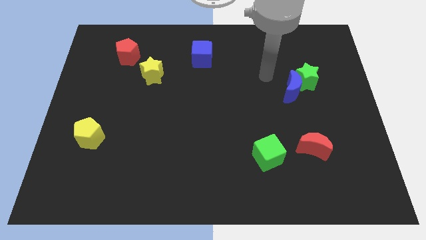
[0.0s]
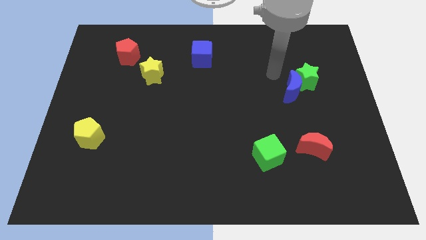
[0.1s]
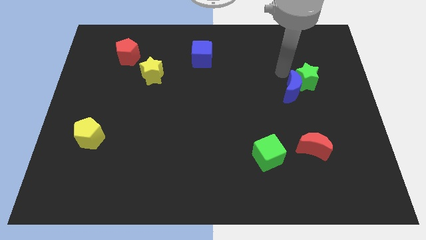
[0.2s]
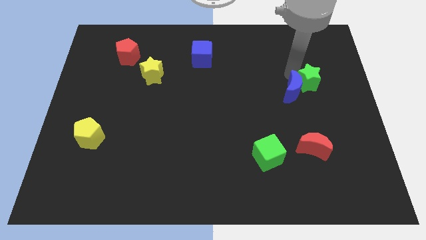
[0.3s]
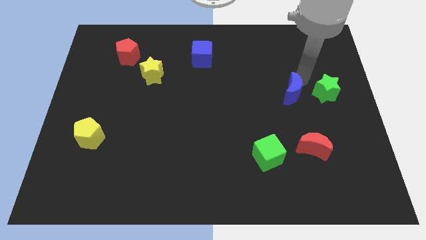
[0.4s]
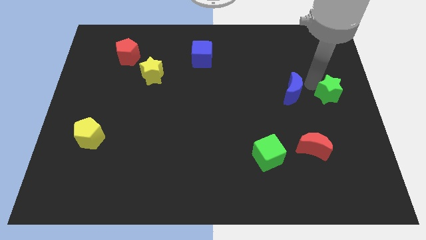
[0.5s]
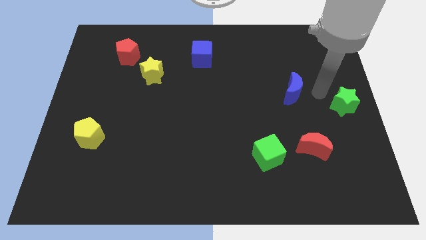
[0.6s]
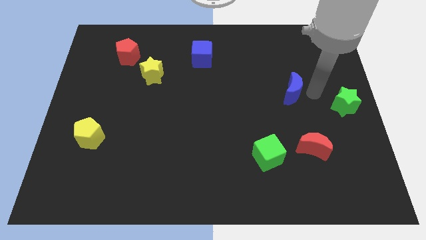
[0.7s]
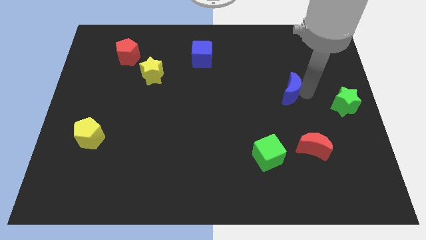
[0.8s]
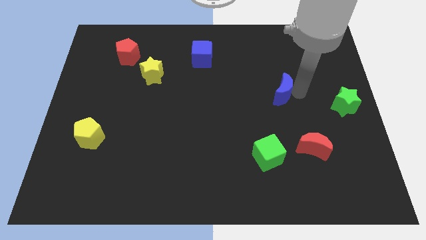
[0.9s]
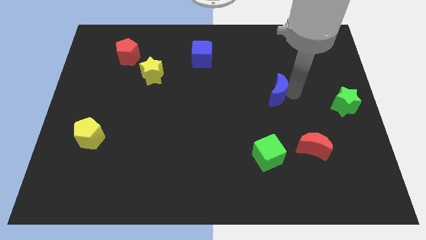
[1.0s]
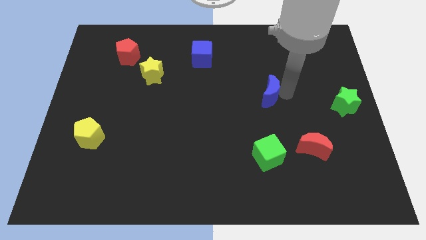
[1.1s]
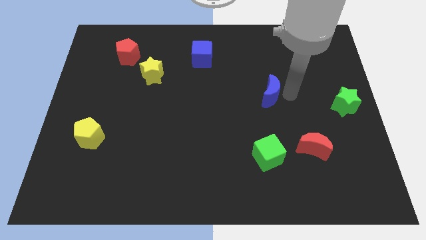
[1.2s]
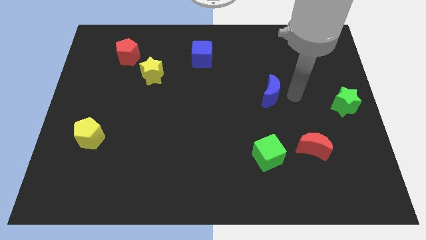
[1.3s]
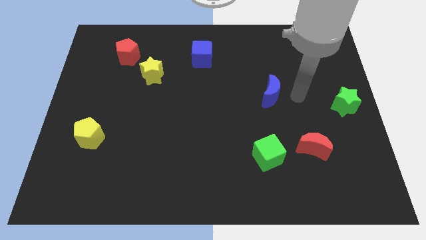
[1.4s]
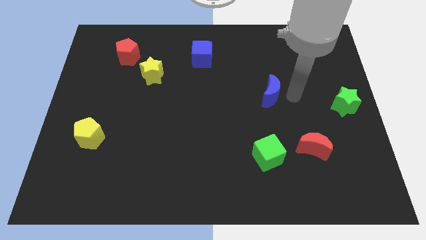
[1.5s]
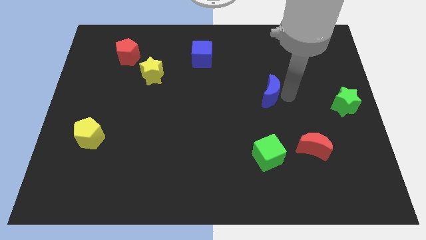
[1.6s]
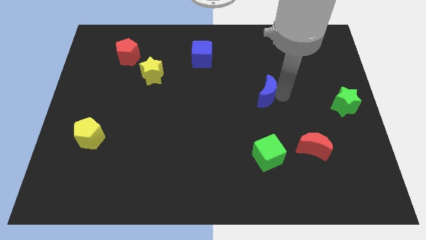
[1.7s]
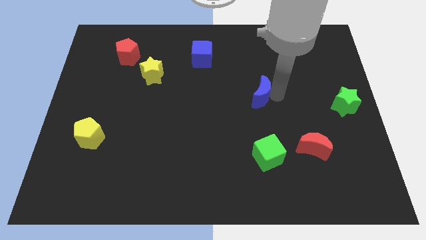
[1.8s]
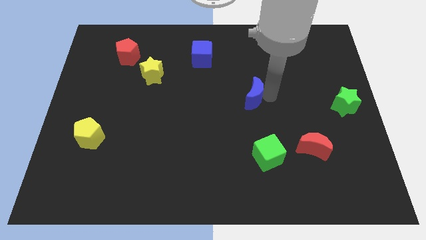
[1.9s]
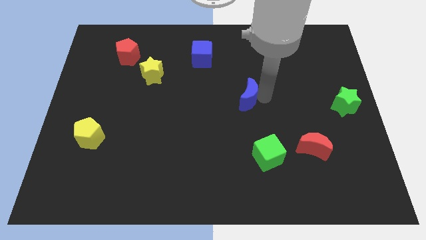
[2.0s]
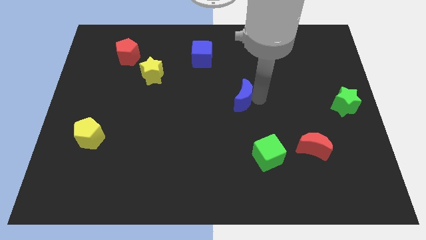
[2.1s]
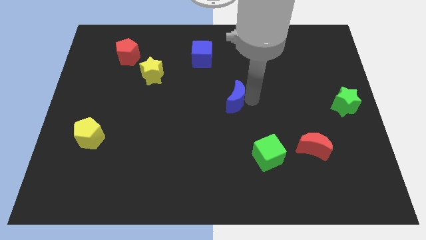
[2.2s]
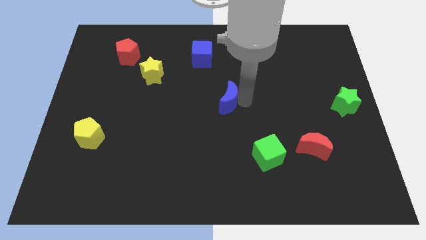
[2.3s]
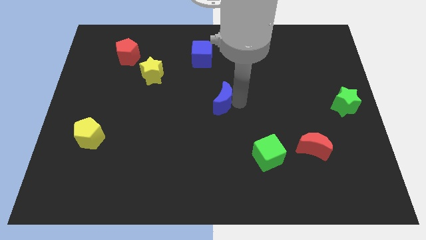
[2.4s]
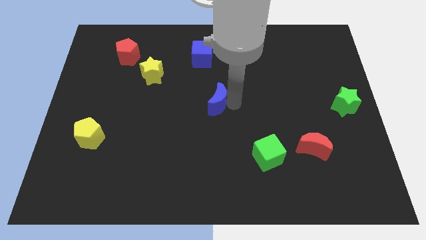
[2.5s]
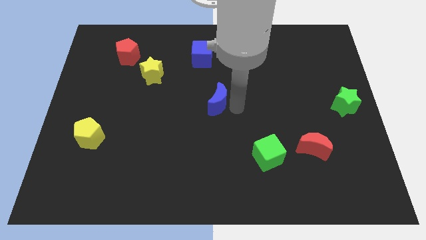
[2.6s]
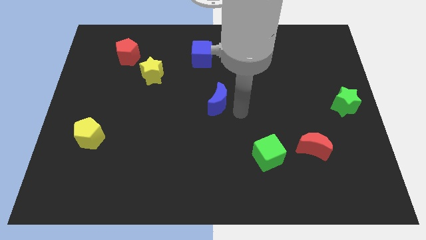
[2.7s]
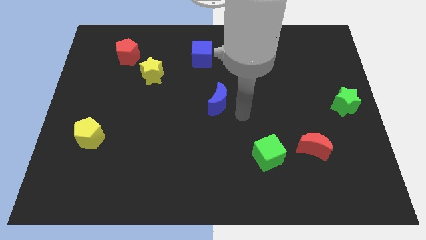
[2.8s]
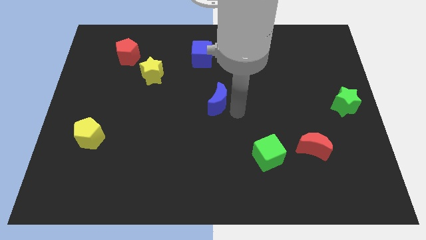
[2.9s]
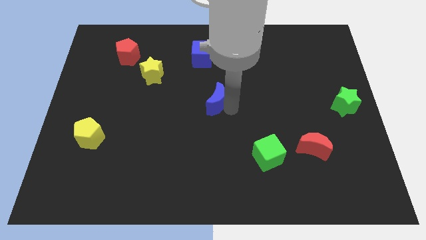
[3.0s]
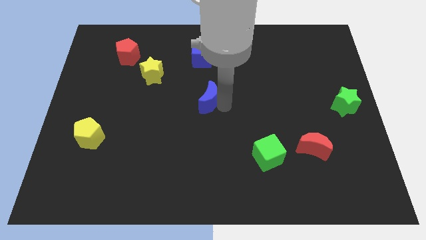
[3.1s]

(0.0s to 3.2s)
push the blue moon left

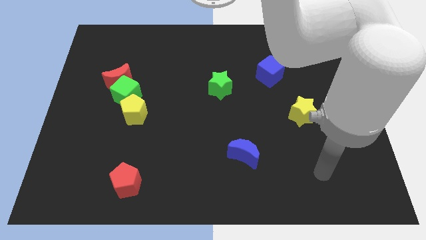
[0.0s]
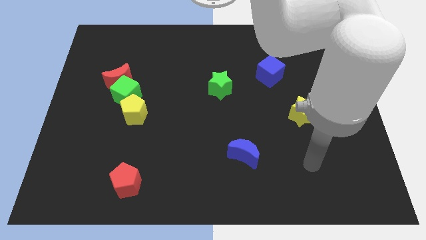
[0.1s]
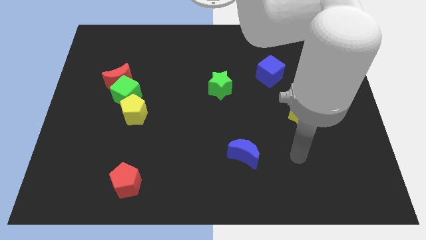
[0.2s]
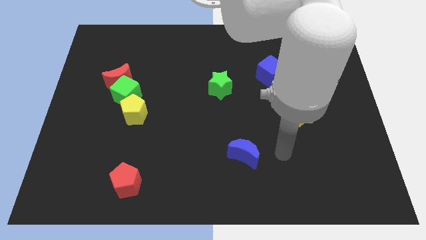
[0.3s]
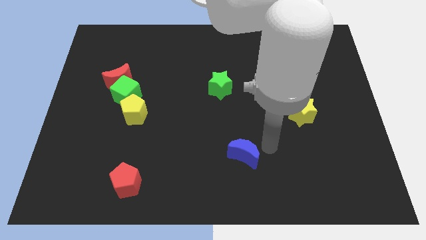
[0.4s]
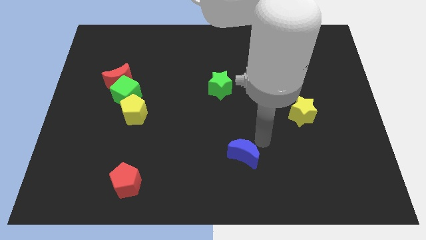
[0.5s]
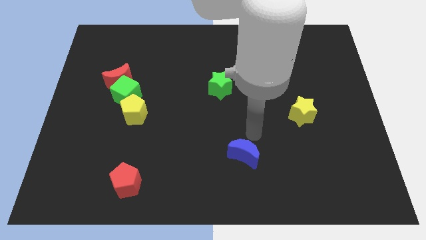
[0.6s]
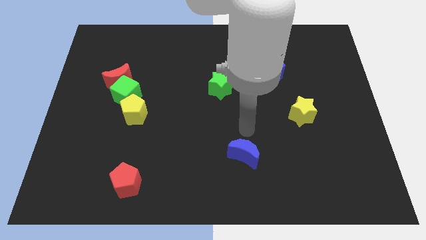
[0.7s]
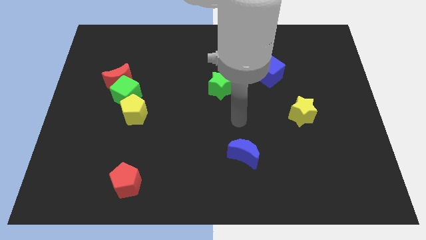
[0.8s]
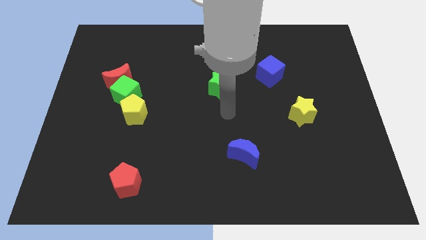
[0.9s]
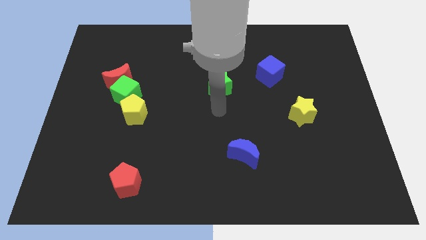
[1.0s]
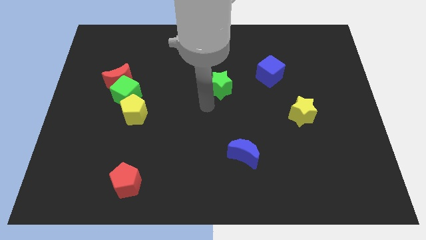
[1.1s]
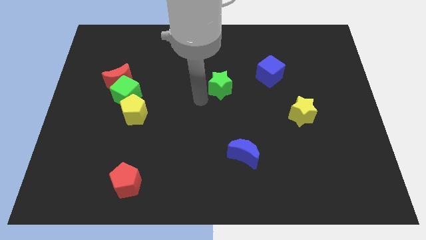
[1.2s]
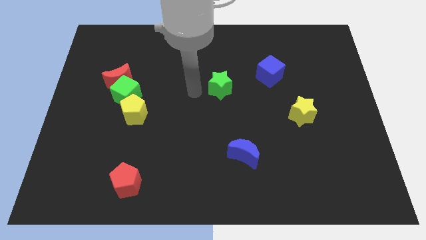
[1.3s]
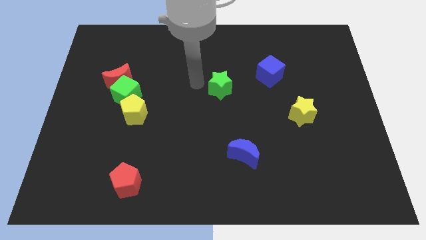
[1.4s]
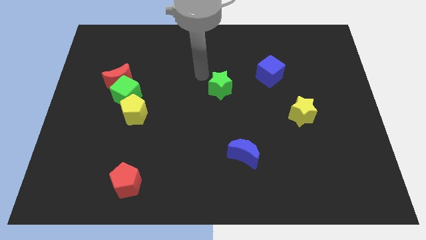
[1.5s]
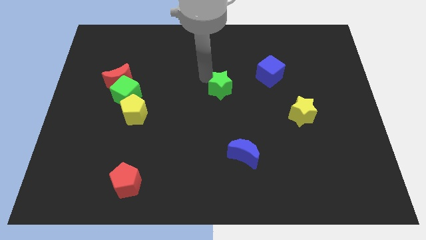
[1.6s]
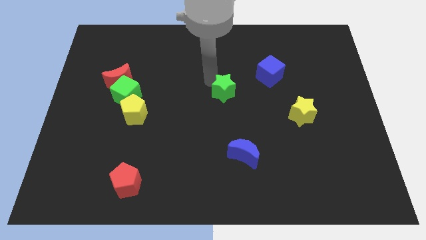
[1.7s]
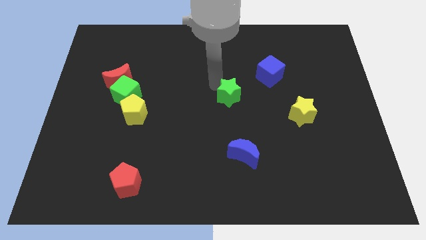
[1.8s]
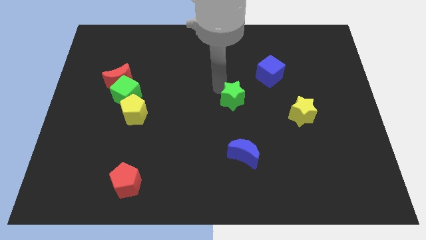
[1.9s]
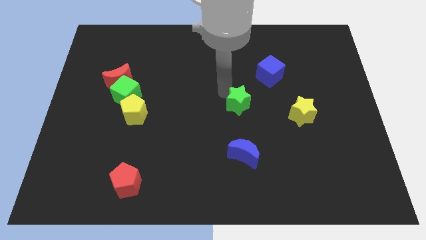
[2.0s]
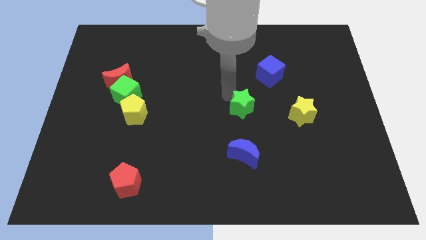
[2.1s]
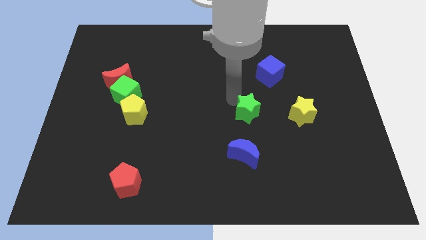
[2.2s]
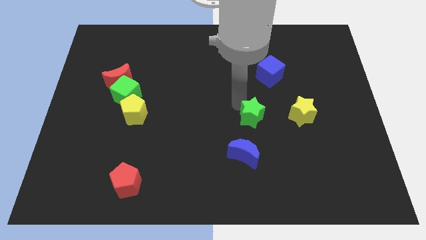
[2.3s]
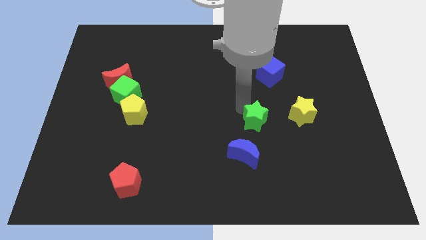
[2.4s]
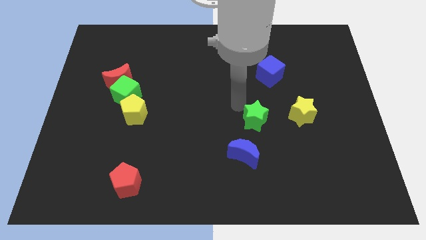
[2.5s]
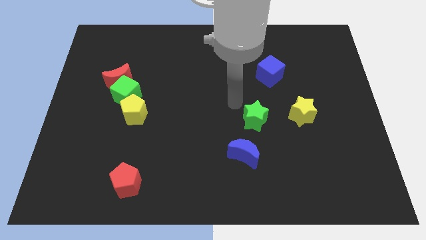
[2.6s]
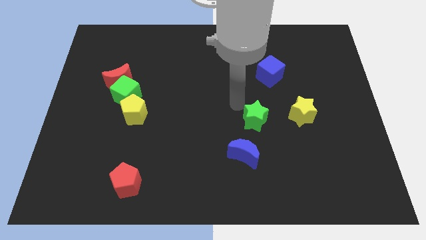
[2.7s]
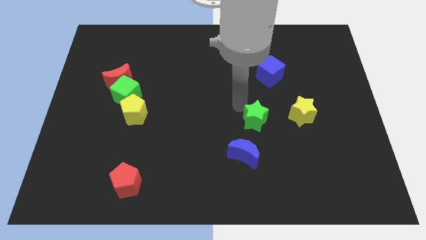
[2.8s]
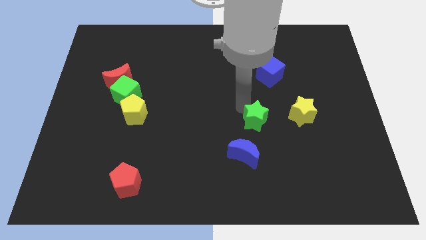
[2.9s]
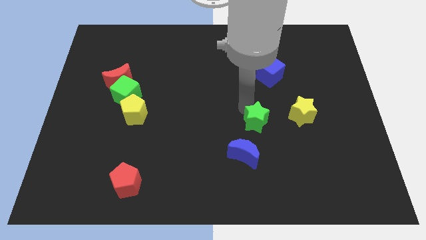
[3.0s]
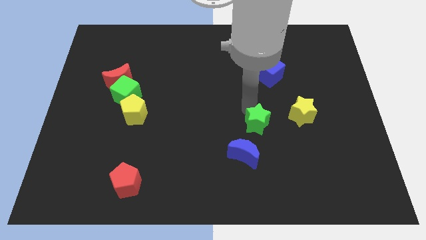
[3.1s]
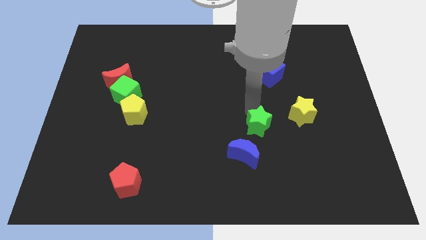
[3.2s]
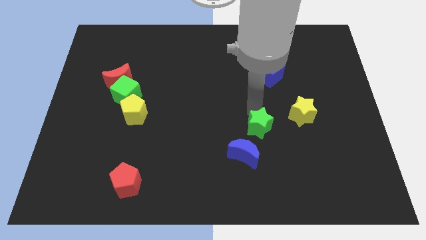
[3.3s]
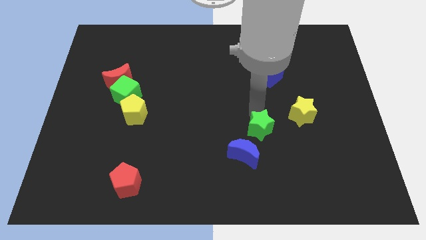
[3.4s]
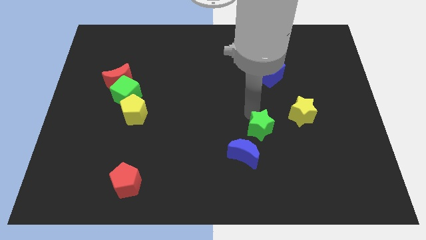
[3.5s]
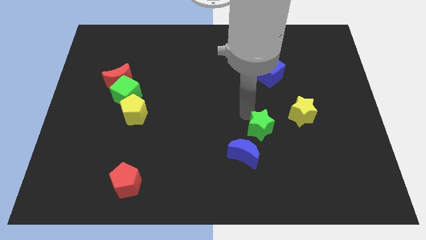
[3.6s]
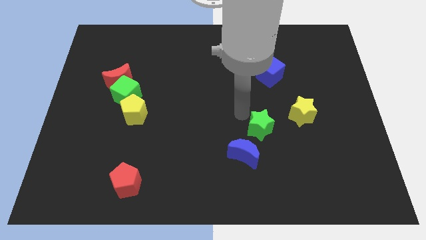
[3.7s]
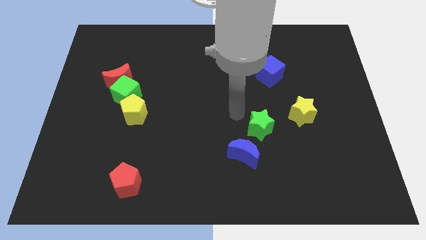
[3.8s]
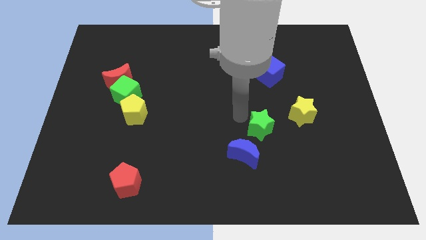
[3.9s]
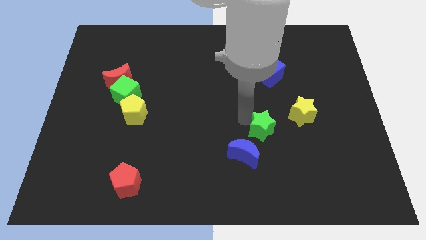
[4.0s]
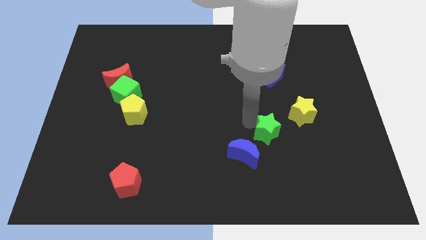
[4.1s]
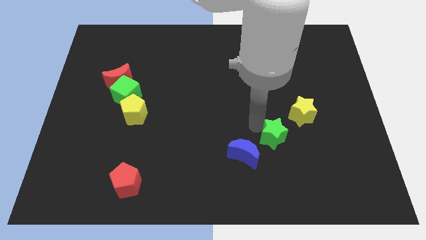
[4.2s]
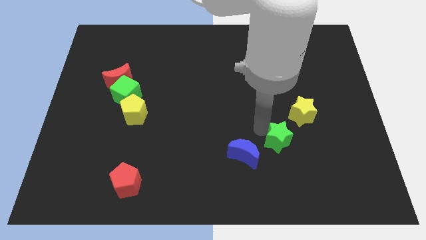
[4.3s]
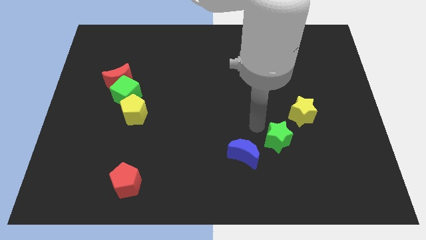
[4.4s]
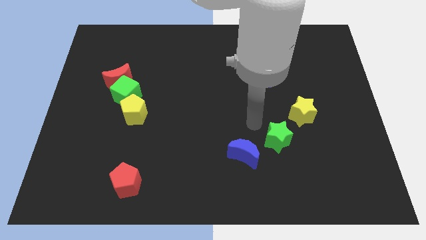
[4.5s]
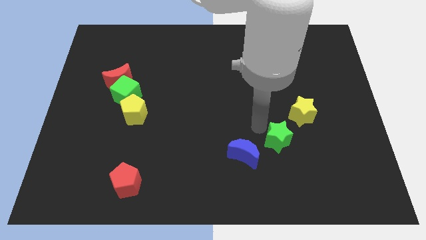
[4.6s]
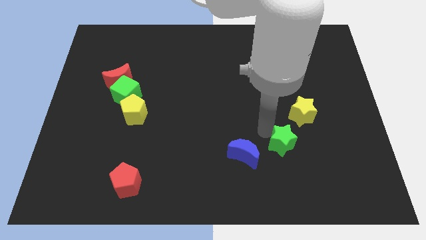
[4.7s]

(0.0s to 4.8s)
slide the green star downwards and right
